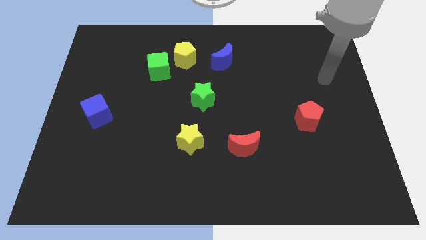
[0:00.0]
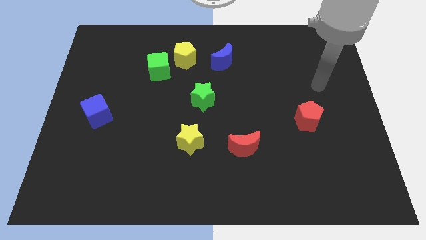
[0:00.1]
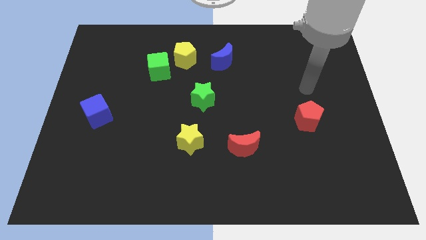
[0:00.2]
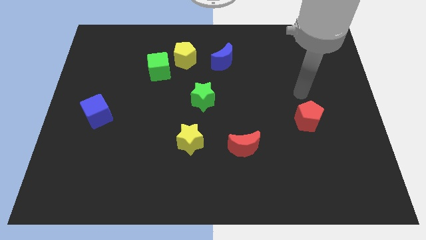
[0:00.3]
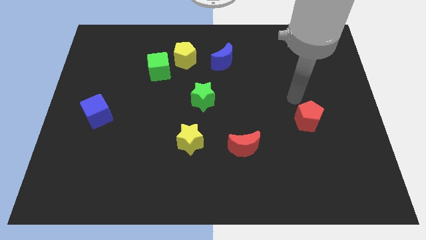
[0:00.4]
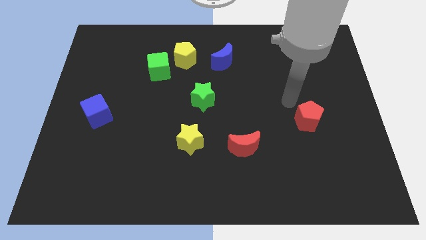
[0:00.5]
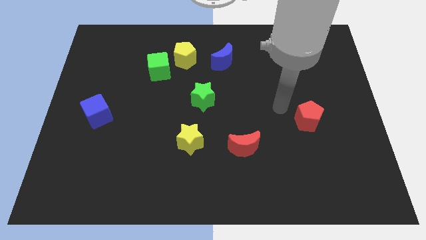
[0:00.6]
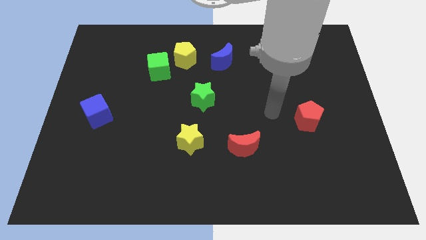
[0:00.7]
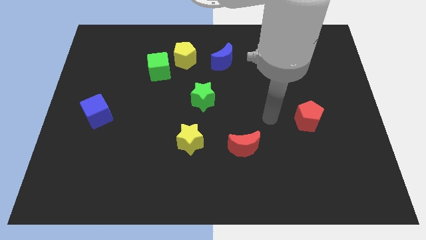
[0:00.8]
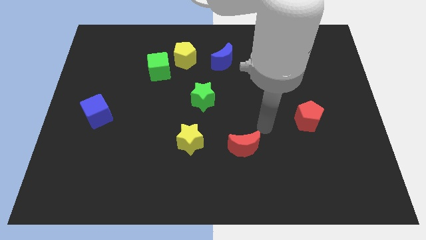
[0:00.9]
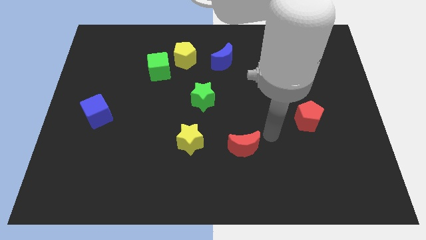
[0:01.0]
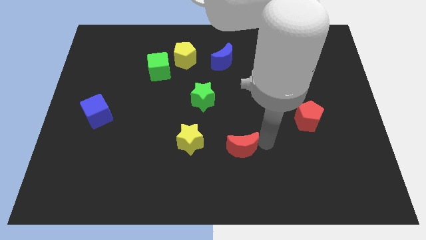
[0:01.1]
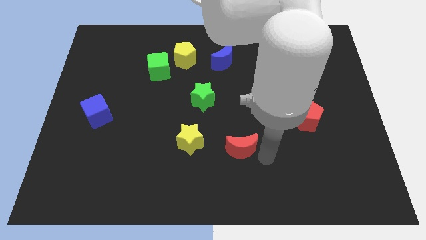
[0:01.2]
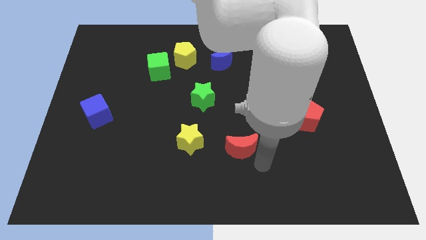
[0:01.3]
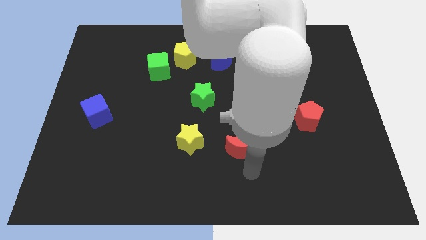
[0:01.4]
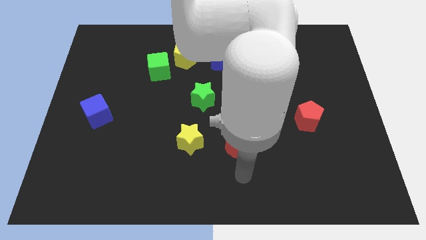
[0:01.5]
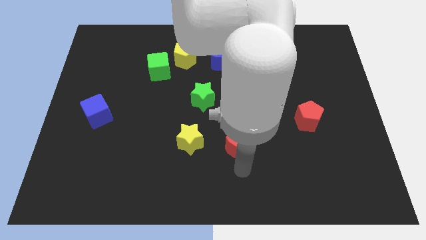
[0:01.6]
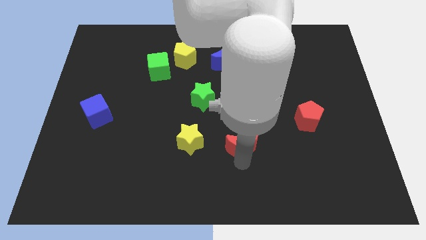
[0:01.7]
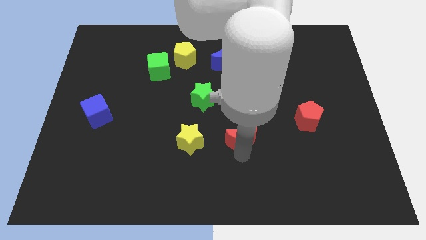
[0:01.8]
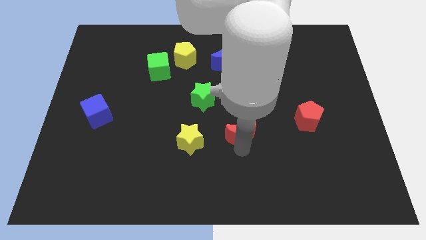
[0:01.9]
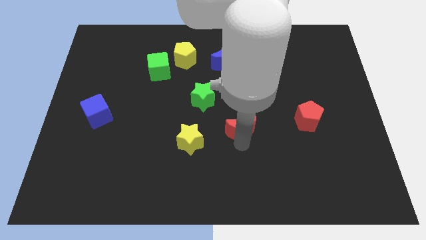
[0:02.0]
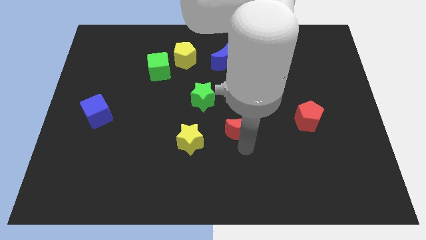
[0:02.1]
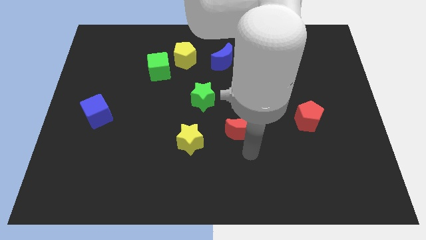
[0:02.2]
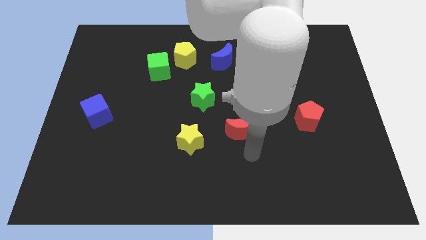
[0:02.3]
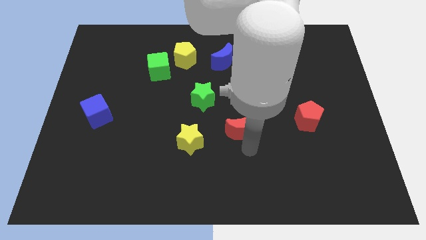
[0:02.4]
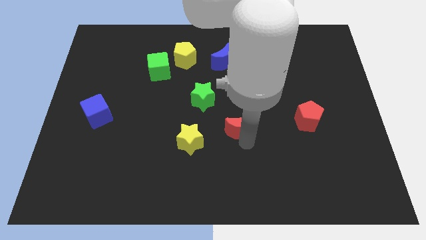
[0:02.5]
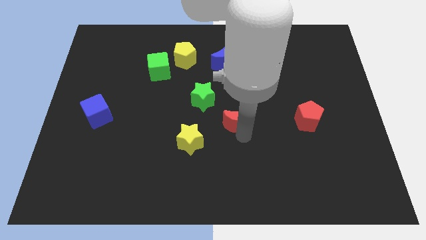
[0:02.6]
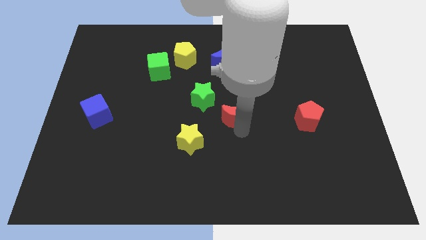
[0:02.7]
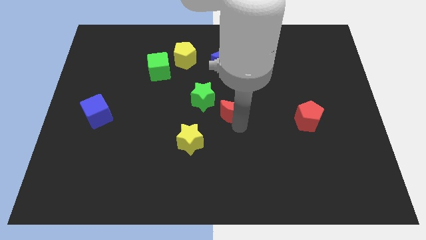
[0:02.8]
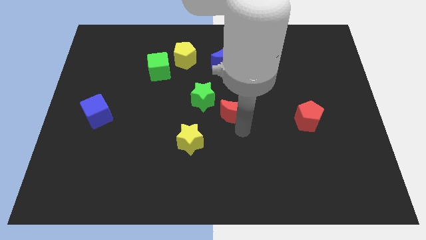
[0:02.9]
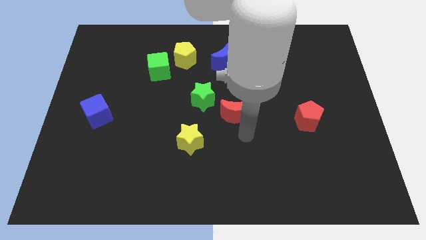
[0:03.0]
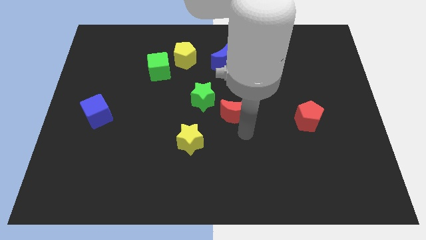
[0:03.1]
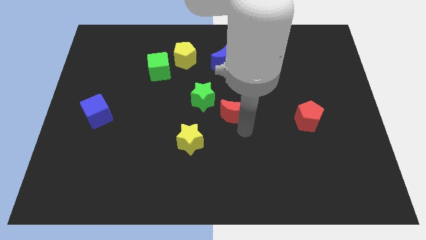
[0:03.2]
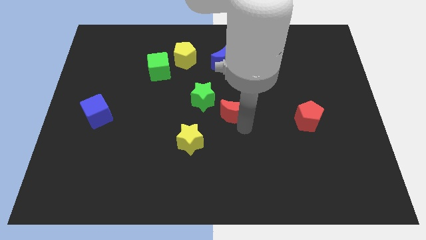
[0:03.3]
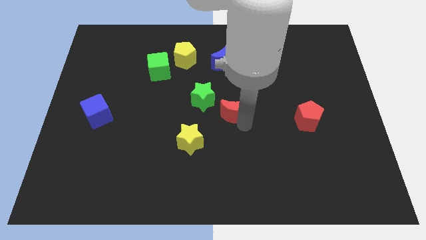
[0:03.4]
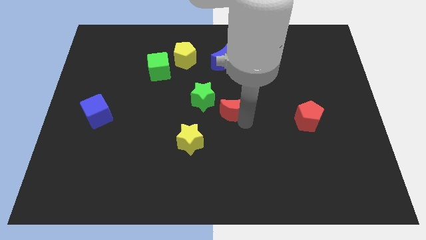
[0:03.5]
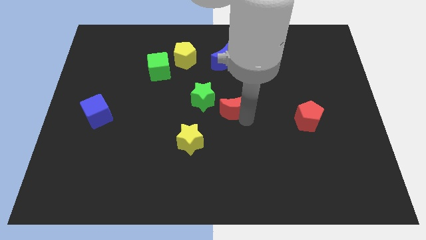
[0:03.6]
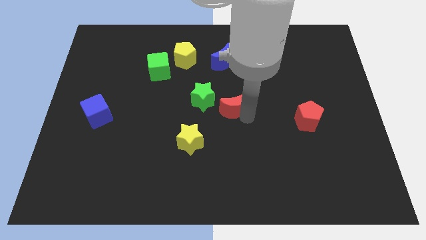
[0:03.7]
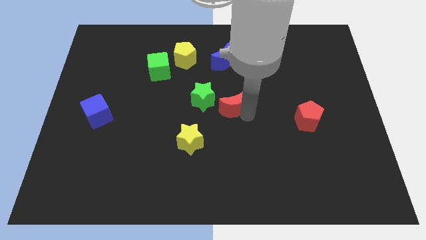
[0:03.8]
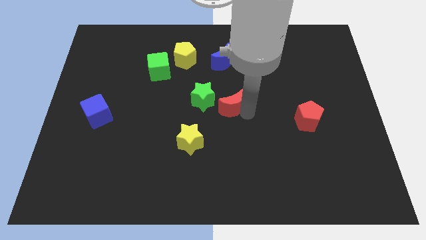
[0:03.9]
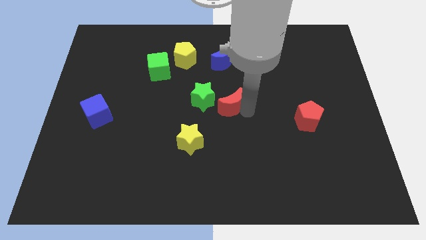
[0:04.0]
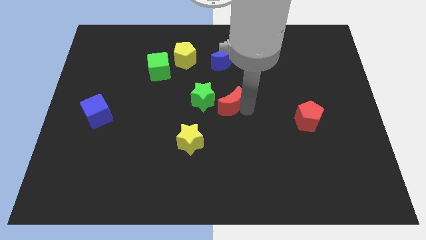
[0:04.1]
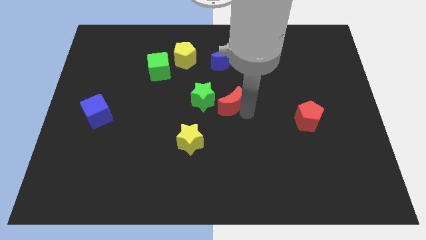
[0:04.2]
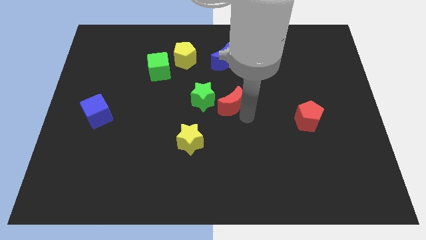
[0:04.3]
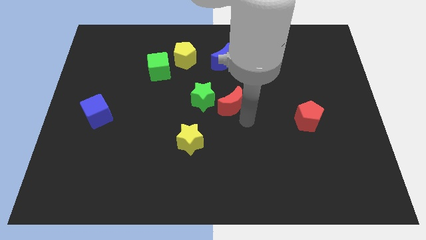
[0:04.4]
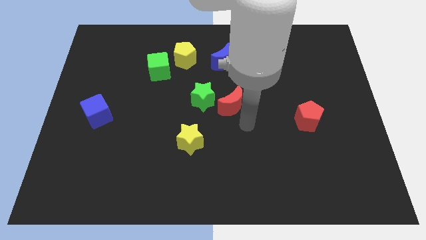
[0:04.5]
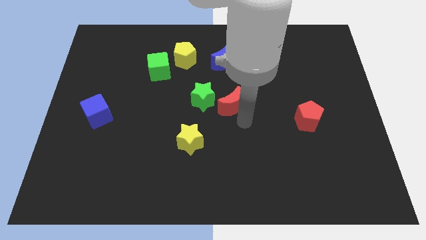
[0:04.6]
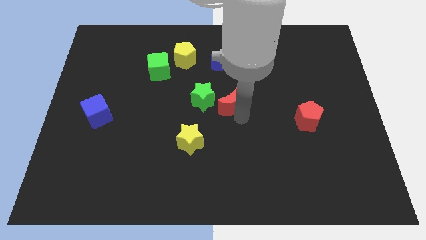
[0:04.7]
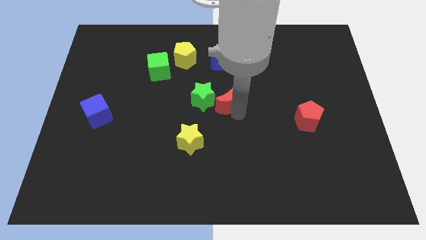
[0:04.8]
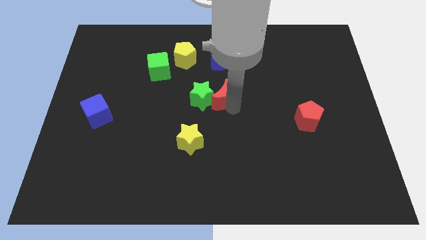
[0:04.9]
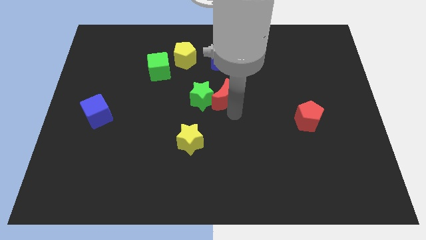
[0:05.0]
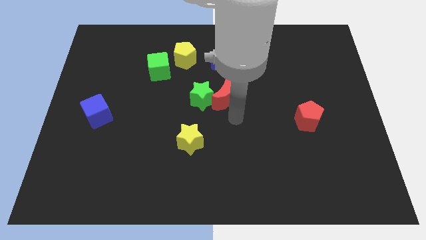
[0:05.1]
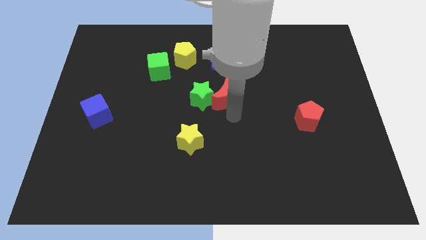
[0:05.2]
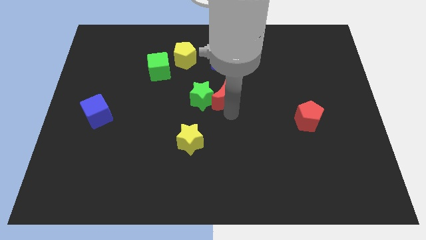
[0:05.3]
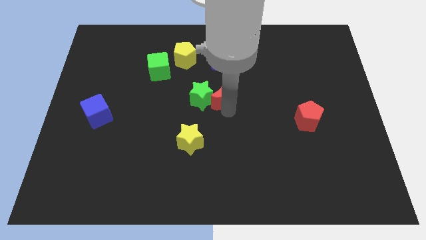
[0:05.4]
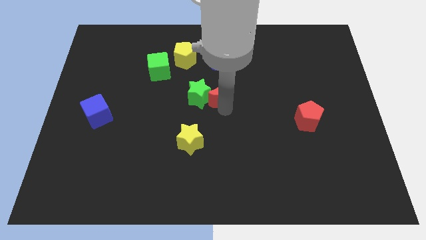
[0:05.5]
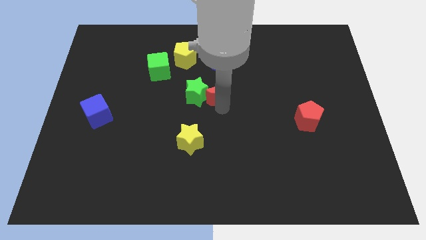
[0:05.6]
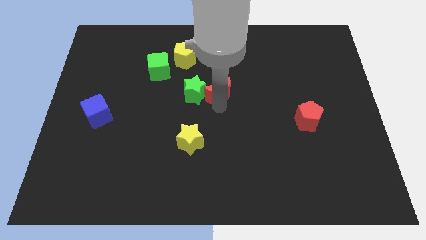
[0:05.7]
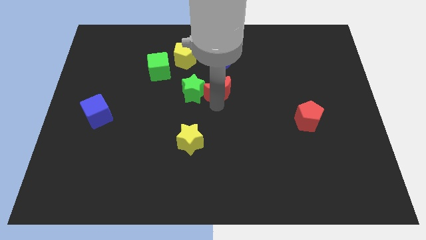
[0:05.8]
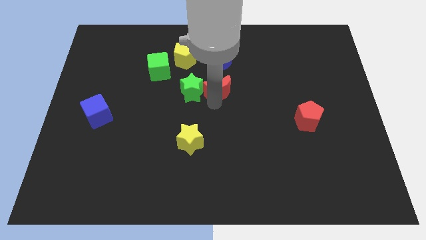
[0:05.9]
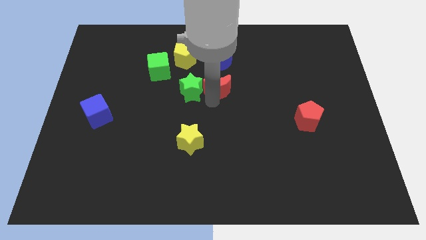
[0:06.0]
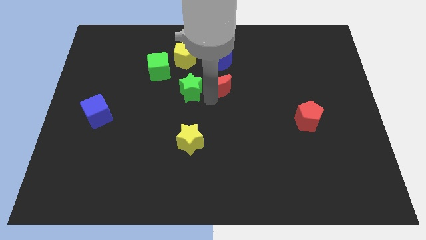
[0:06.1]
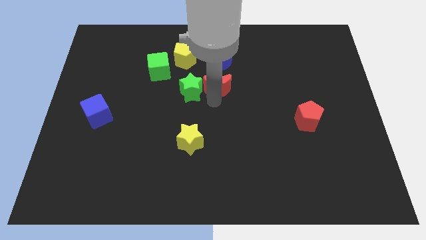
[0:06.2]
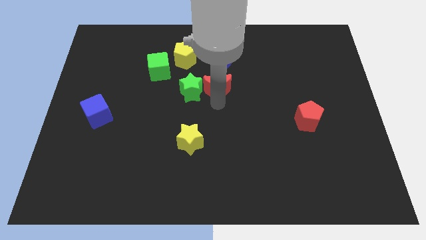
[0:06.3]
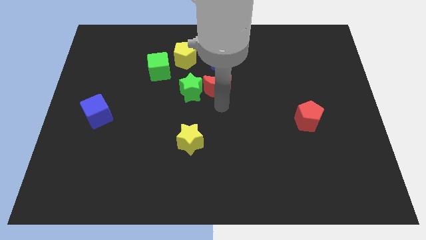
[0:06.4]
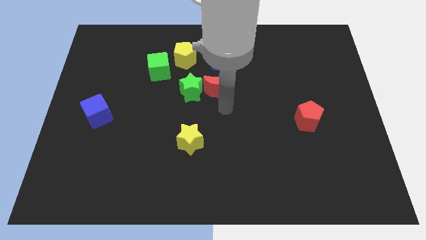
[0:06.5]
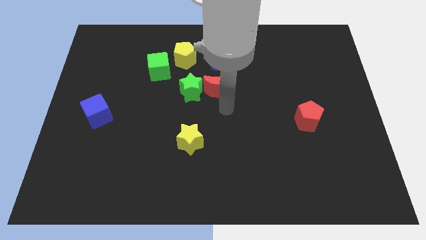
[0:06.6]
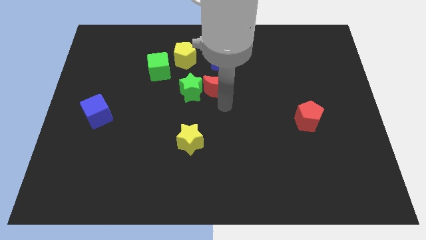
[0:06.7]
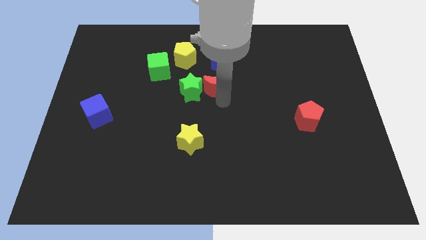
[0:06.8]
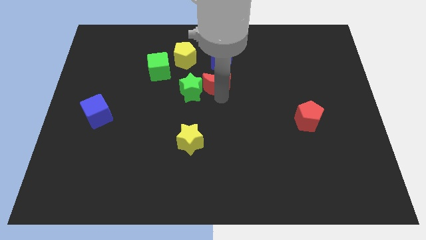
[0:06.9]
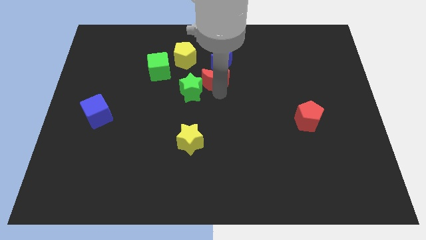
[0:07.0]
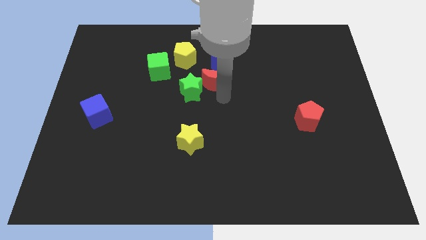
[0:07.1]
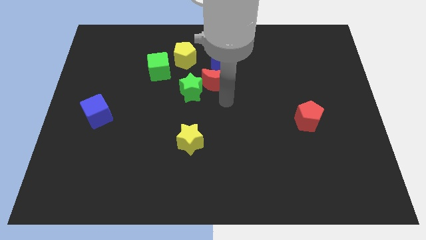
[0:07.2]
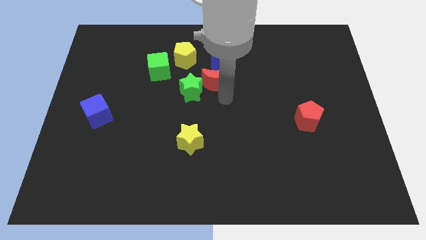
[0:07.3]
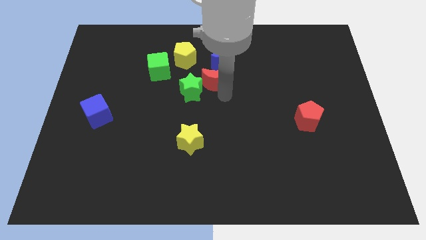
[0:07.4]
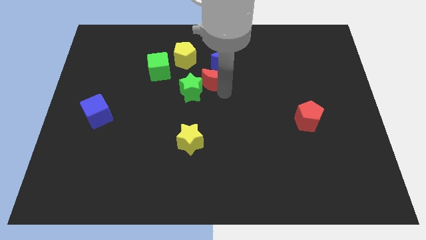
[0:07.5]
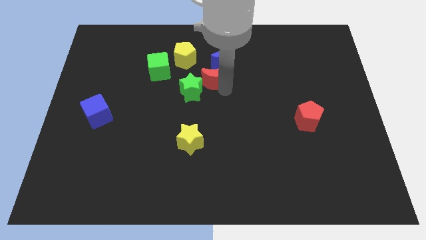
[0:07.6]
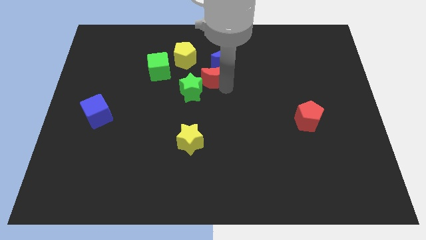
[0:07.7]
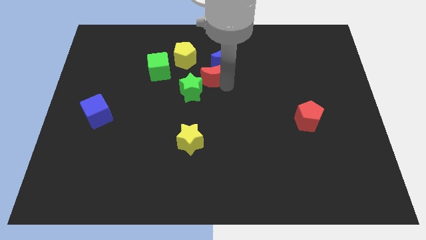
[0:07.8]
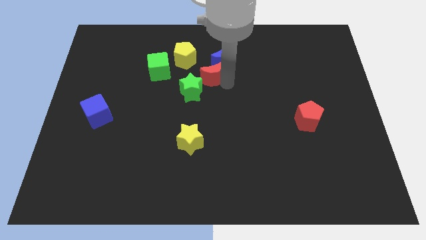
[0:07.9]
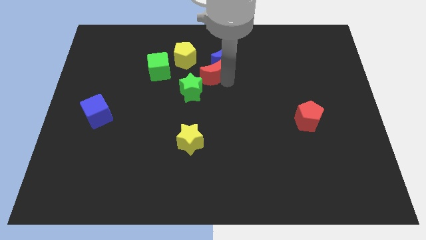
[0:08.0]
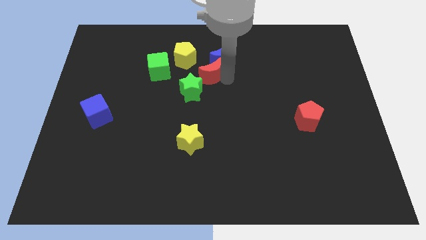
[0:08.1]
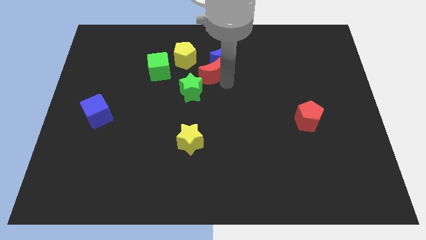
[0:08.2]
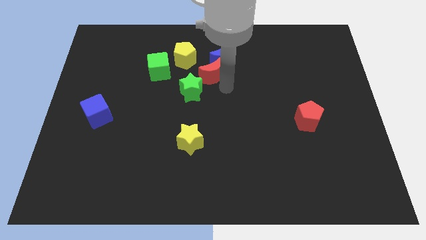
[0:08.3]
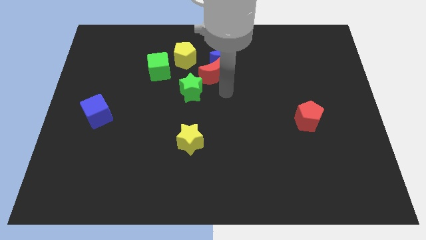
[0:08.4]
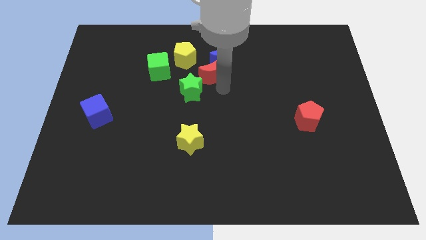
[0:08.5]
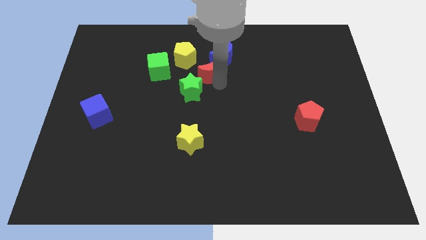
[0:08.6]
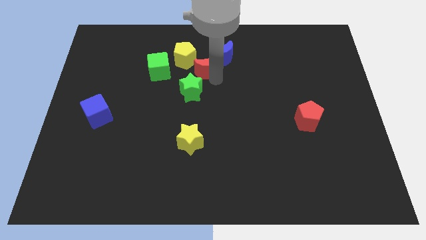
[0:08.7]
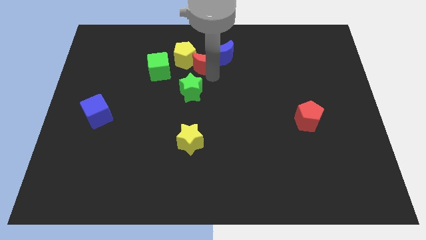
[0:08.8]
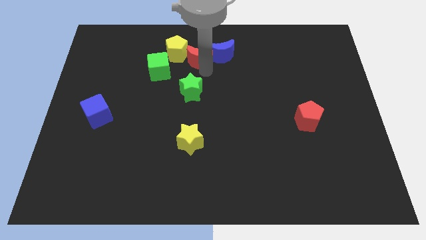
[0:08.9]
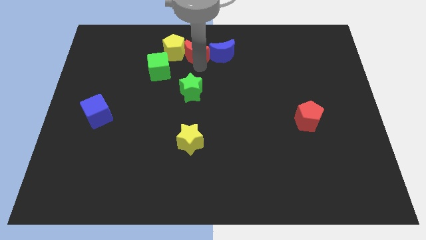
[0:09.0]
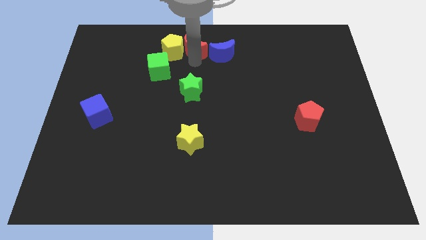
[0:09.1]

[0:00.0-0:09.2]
slide the red moon to the top
